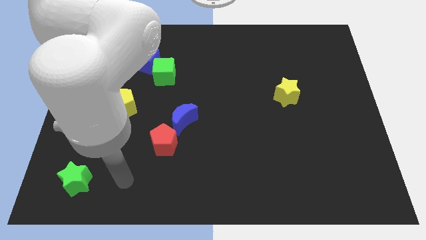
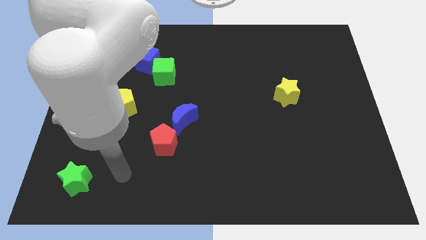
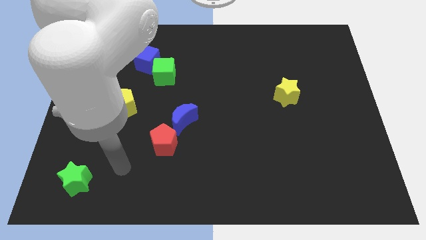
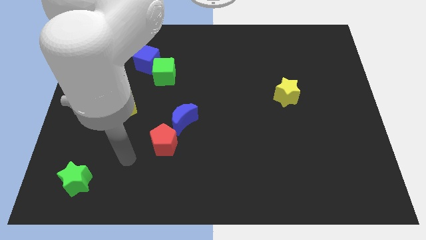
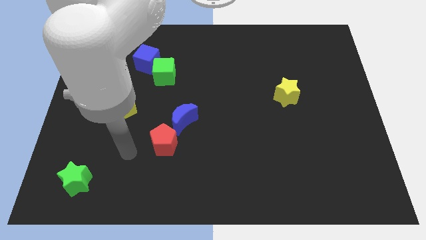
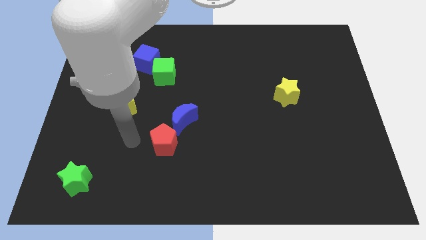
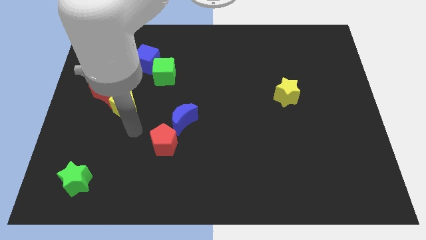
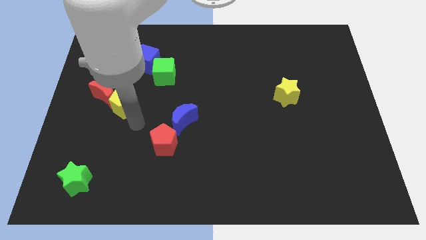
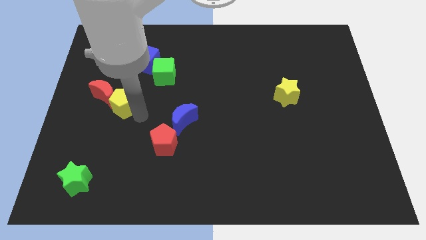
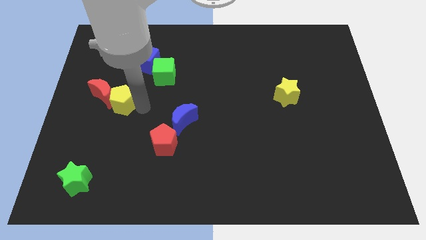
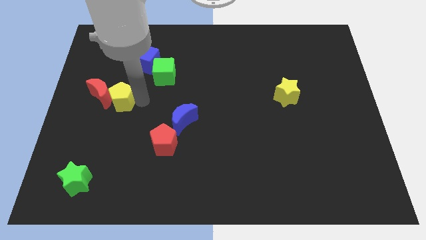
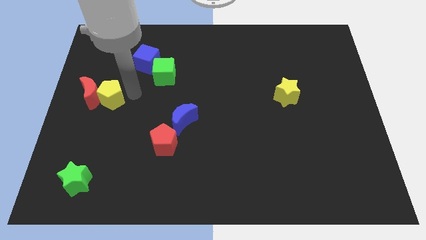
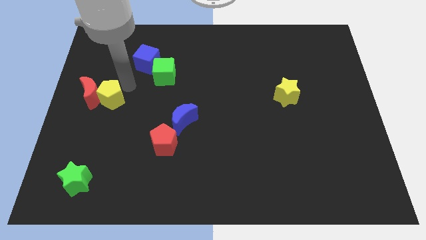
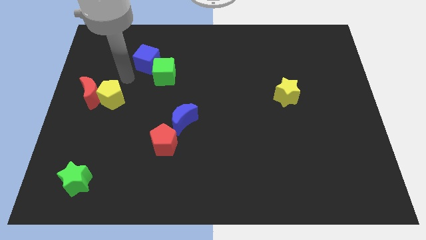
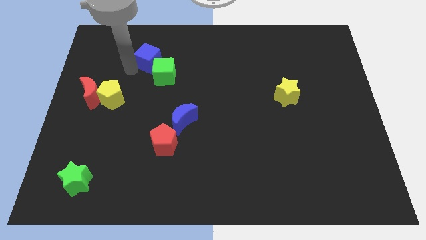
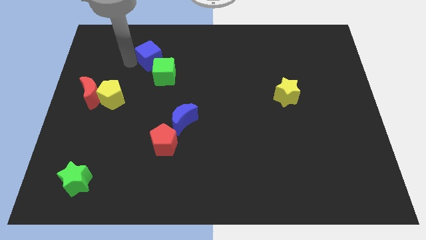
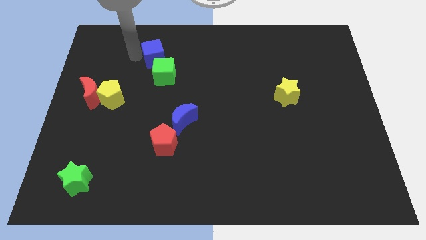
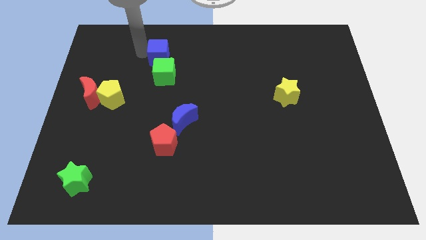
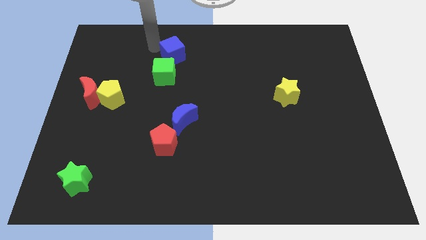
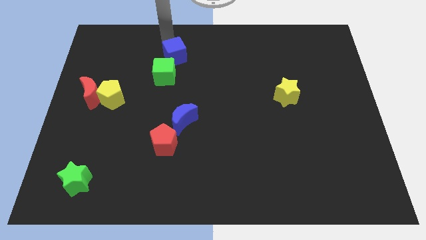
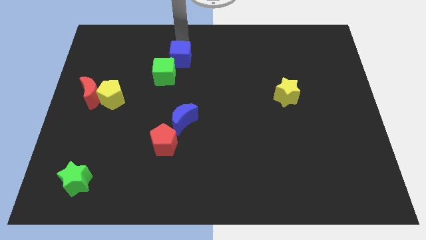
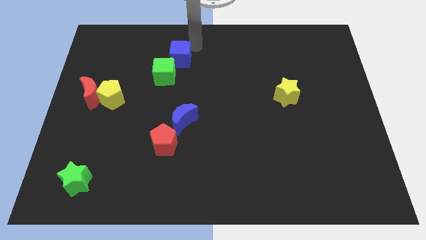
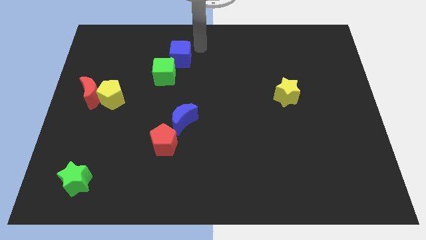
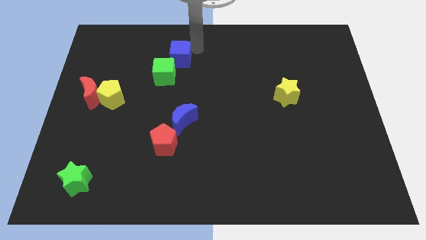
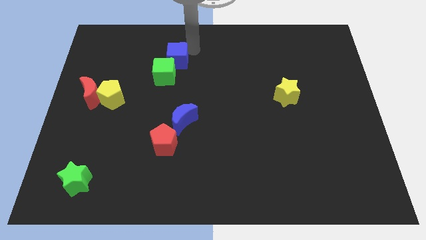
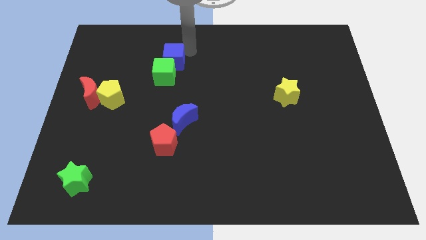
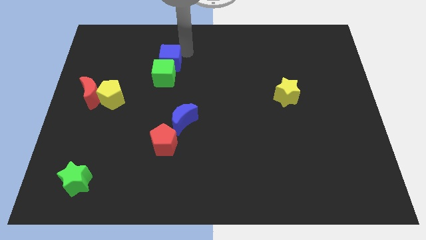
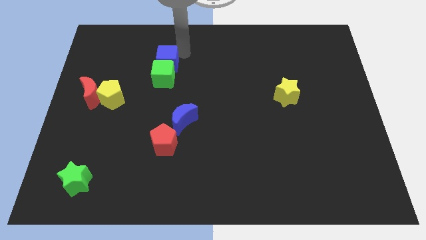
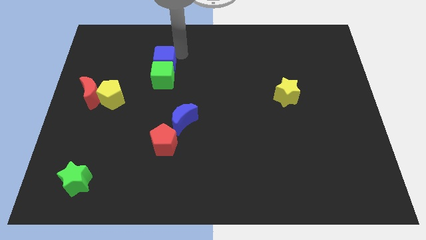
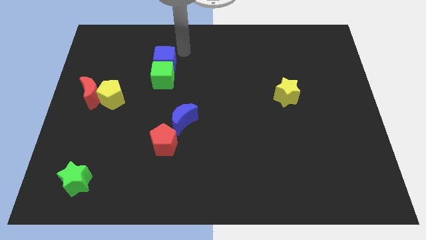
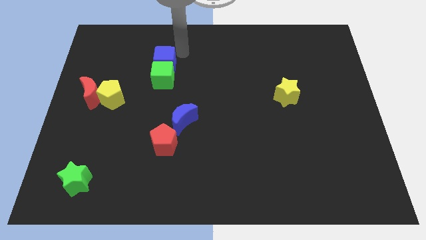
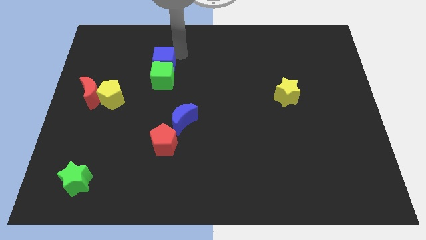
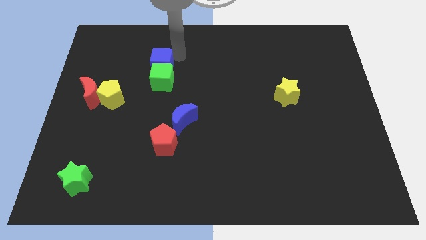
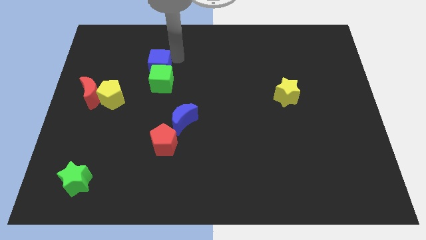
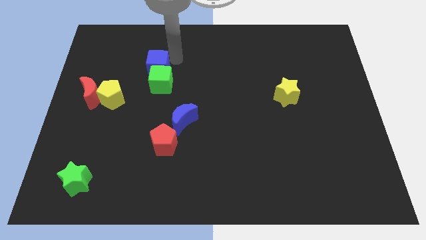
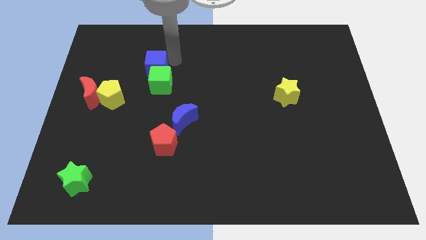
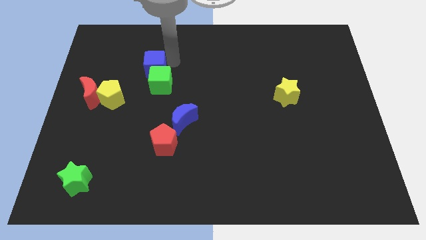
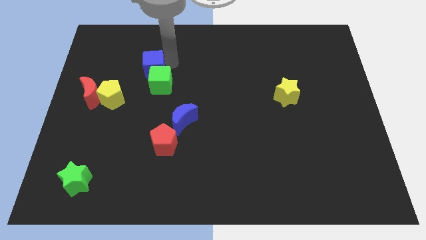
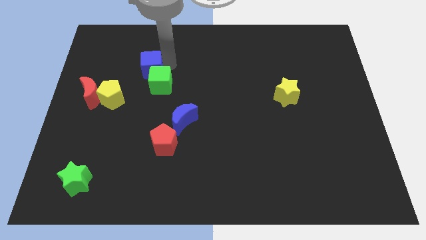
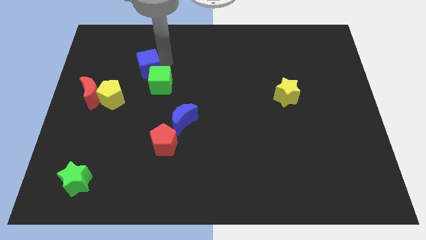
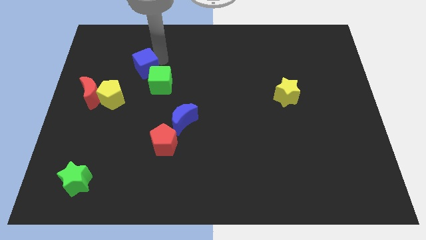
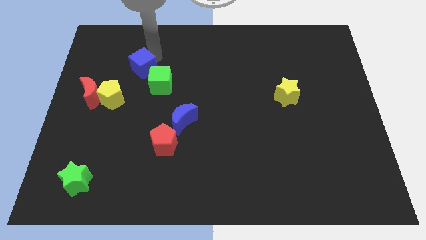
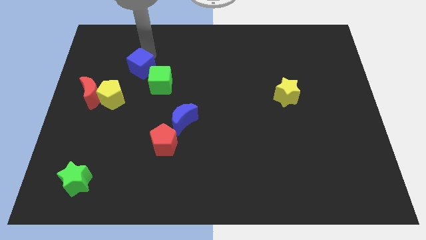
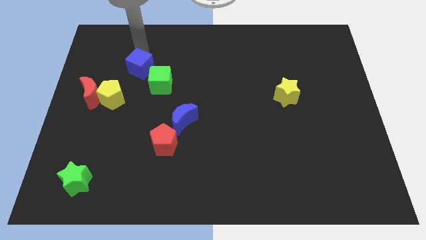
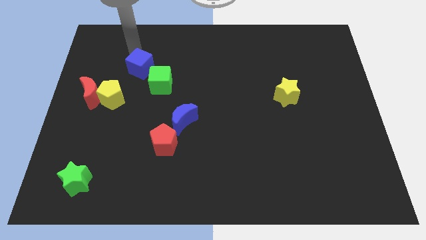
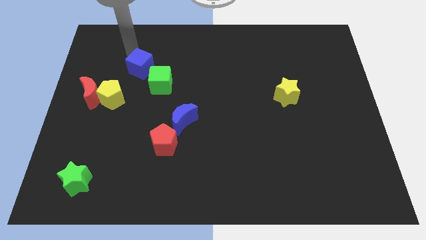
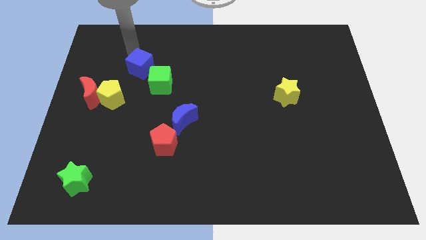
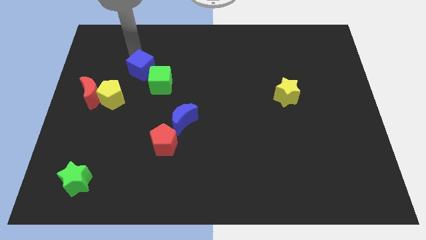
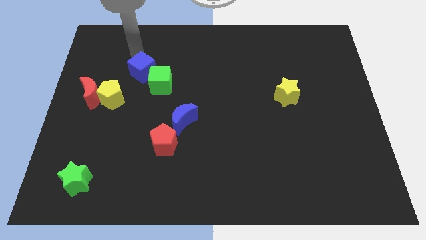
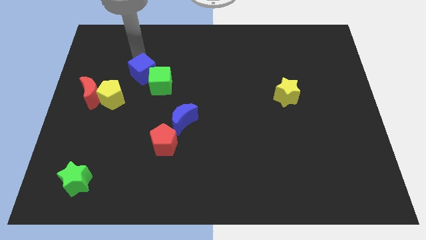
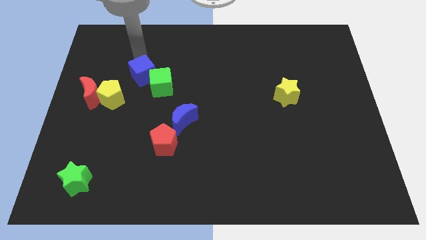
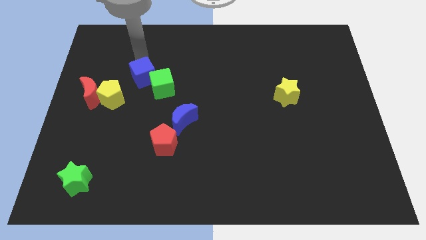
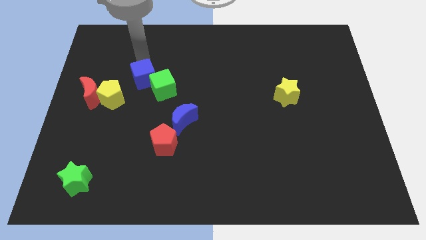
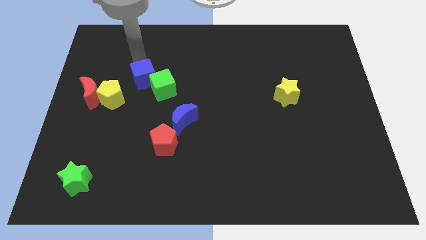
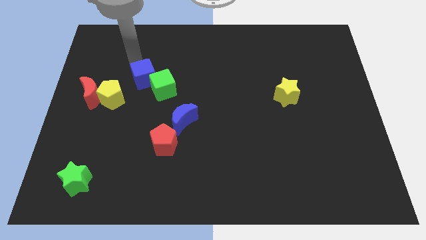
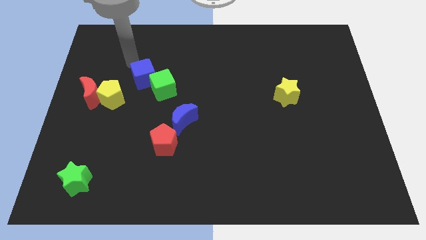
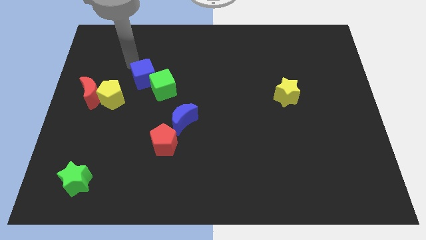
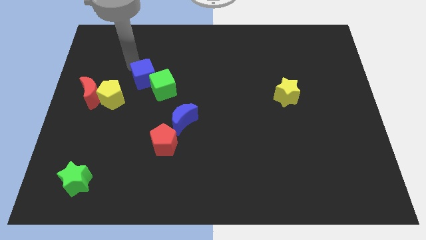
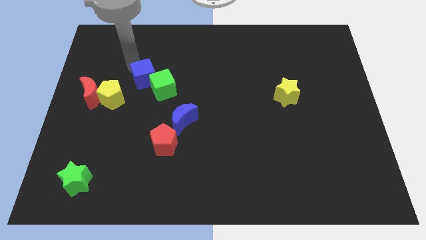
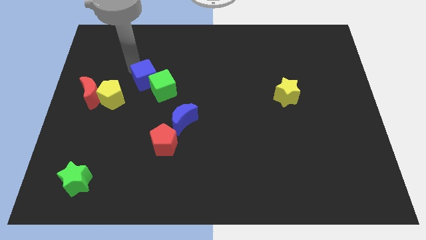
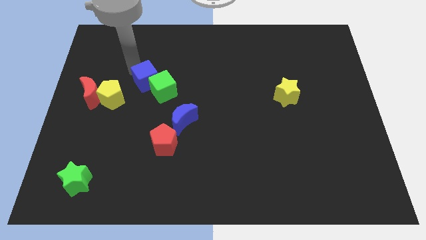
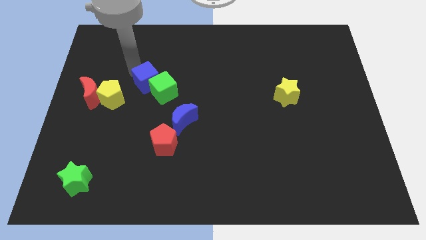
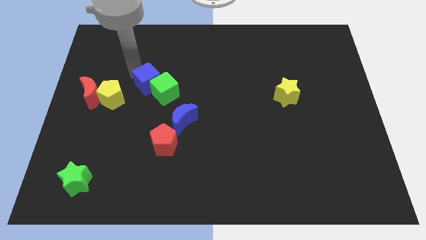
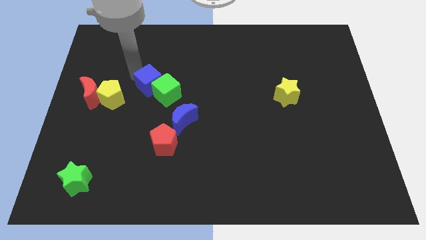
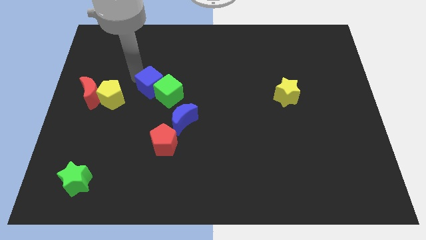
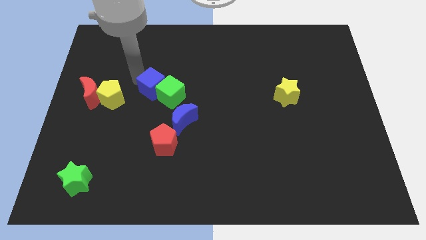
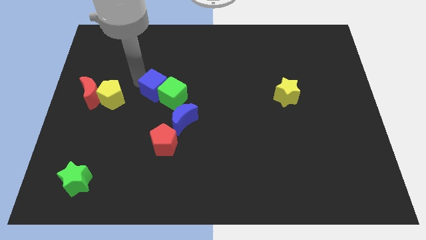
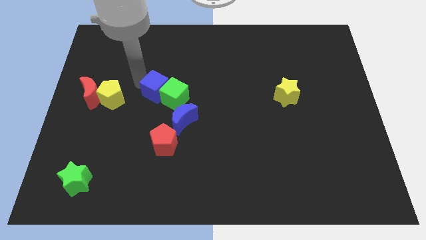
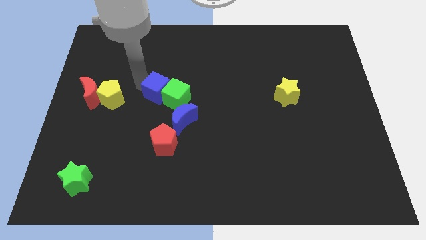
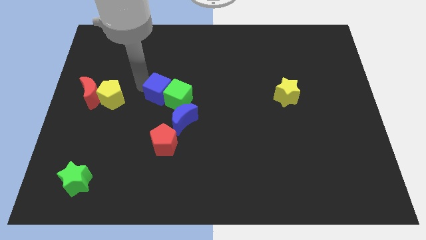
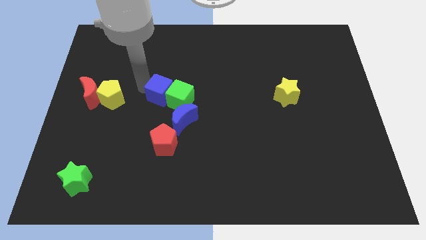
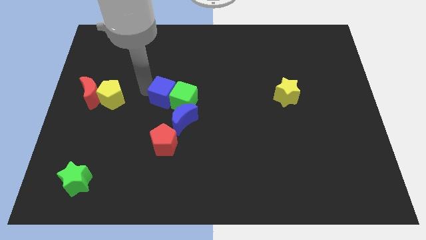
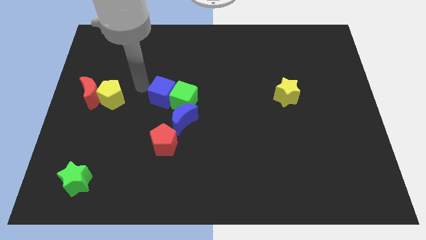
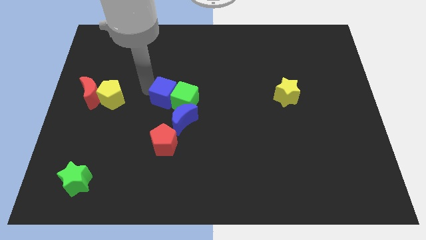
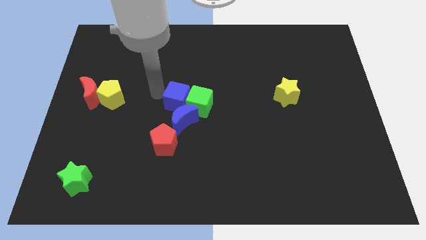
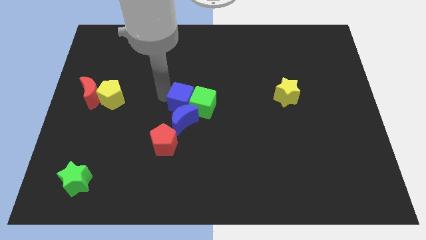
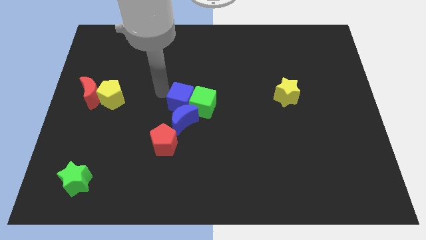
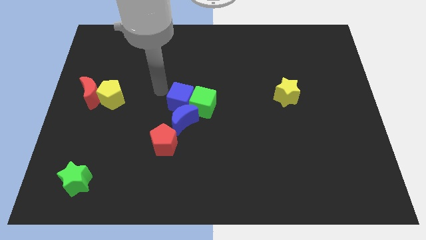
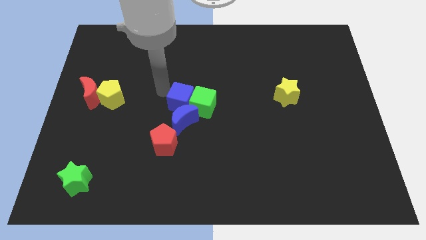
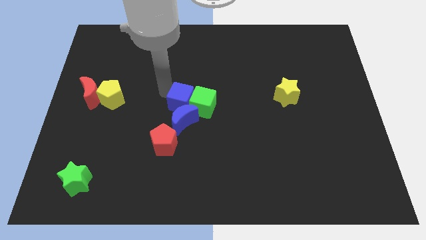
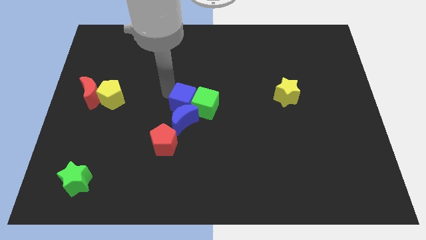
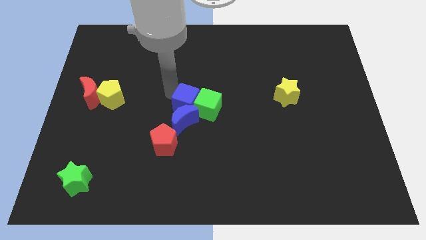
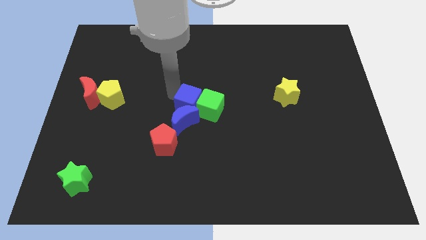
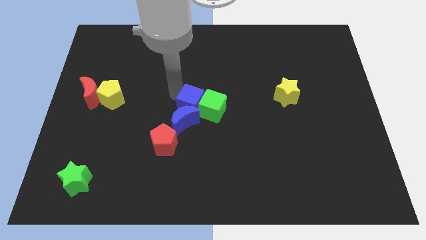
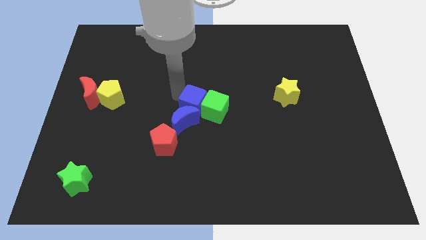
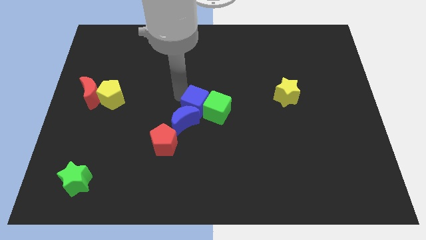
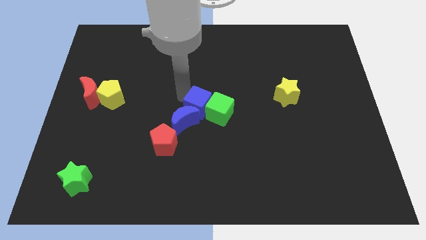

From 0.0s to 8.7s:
push the blue cube downwards and right
